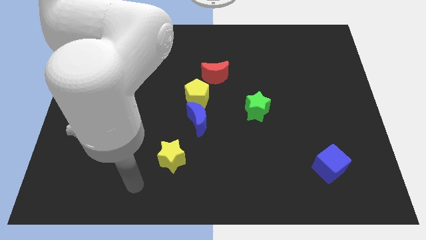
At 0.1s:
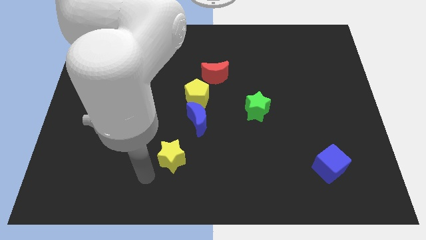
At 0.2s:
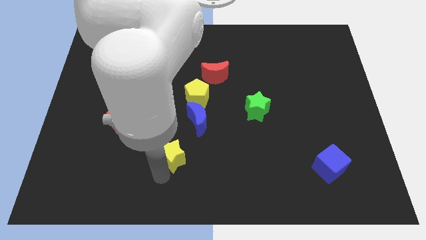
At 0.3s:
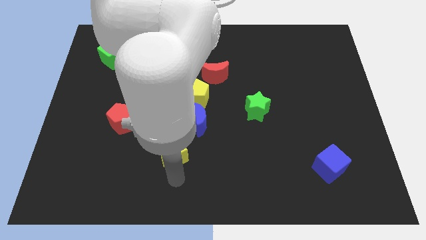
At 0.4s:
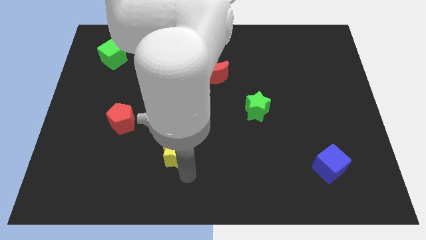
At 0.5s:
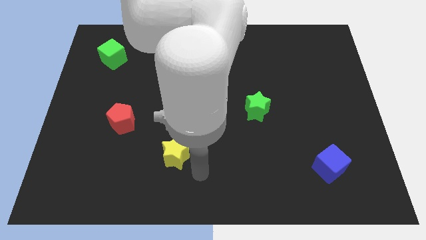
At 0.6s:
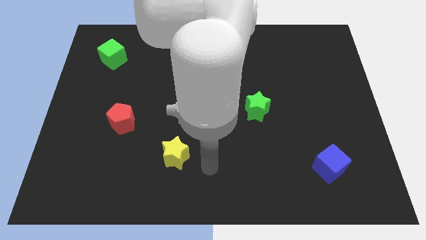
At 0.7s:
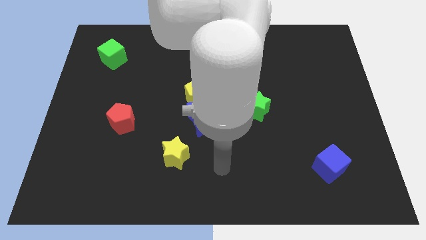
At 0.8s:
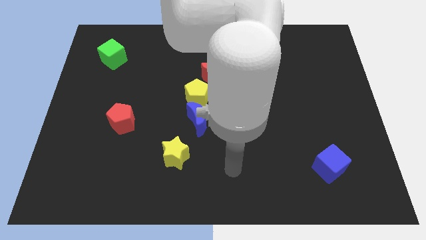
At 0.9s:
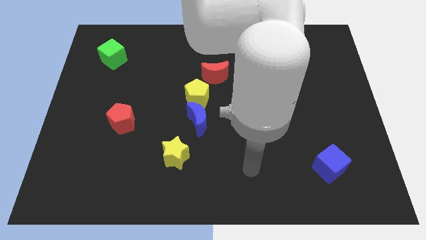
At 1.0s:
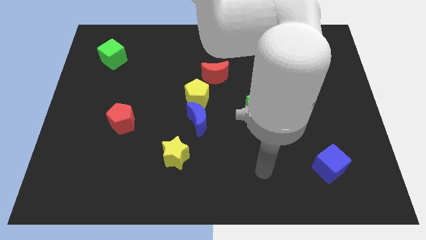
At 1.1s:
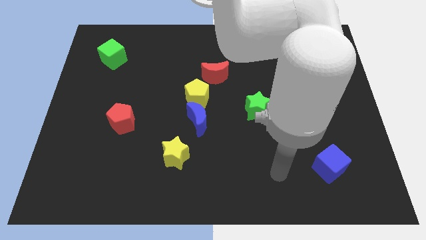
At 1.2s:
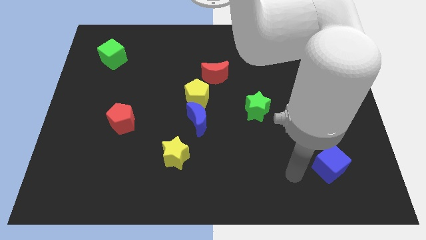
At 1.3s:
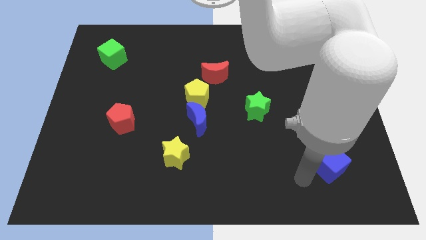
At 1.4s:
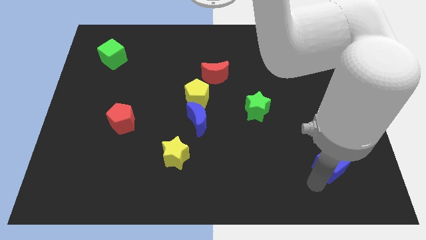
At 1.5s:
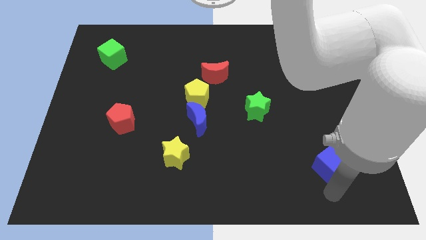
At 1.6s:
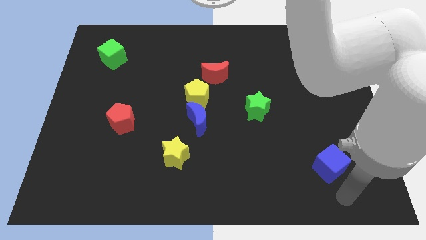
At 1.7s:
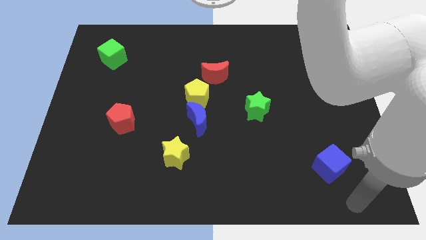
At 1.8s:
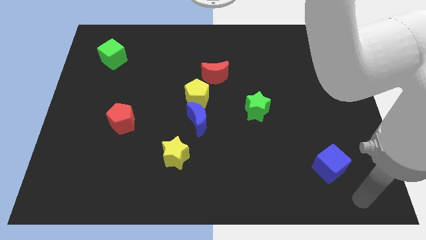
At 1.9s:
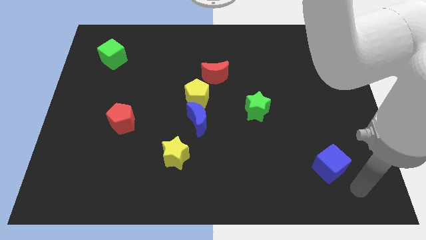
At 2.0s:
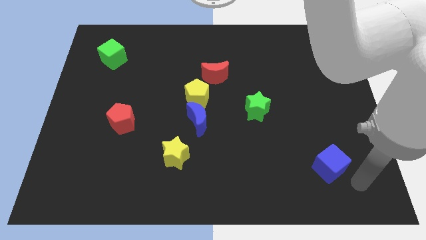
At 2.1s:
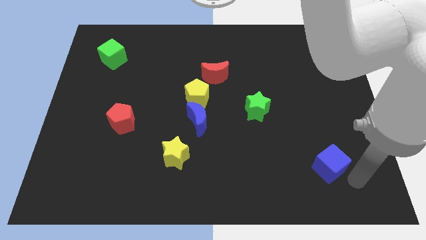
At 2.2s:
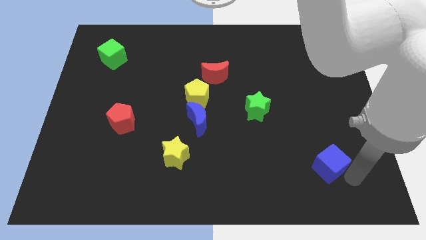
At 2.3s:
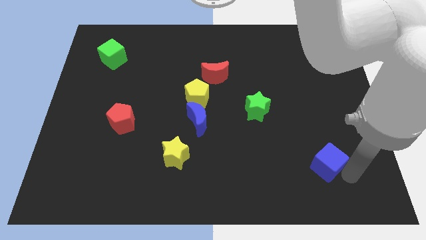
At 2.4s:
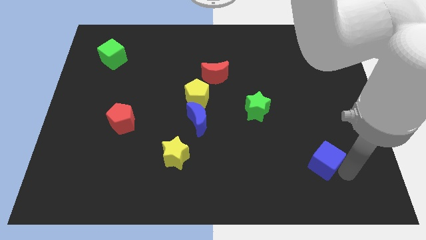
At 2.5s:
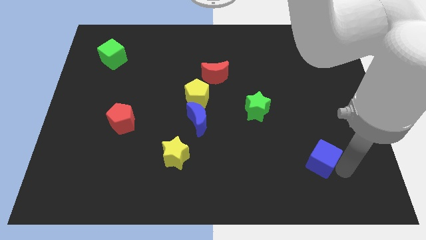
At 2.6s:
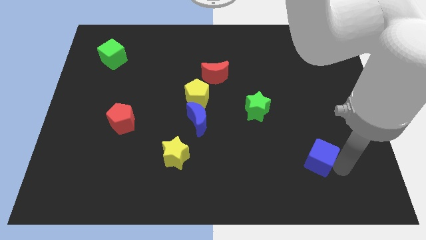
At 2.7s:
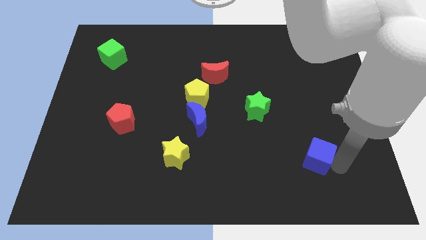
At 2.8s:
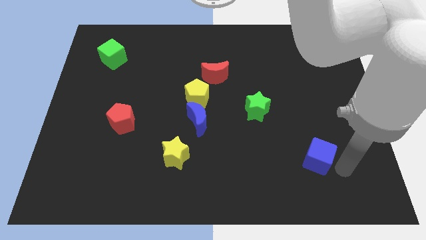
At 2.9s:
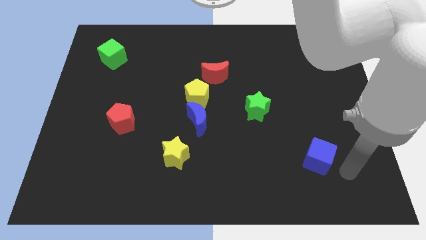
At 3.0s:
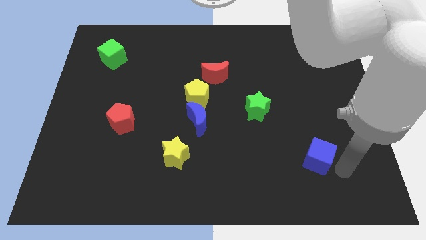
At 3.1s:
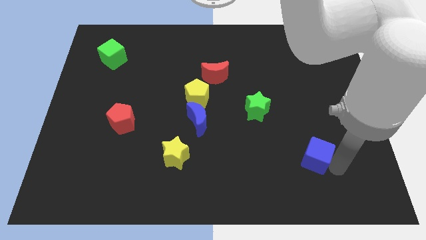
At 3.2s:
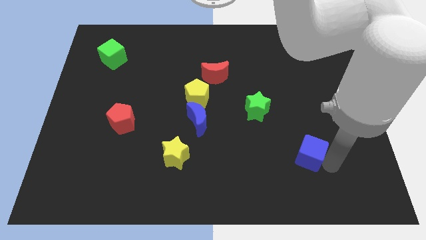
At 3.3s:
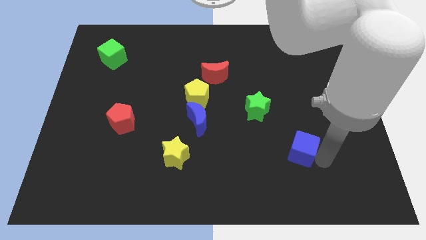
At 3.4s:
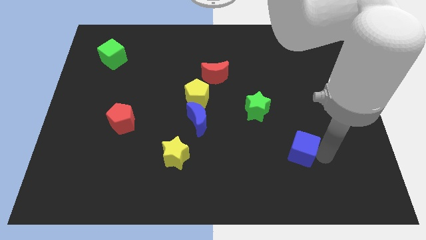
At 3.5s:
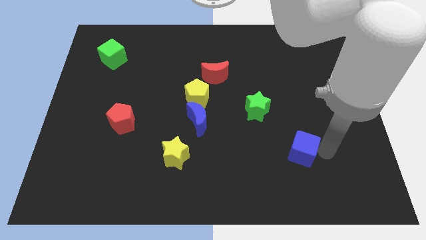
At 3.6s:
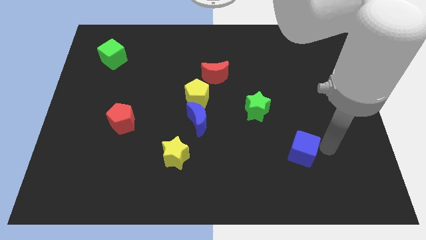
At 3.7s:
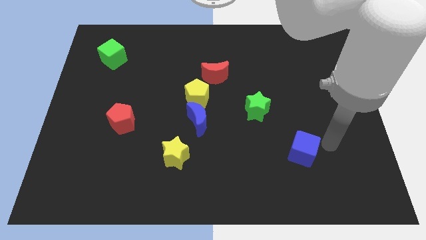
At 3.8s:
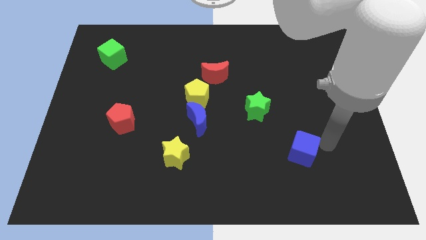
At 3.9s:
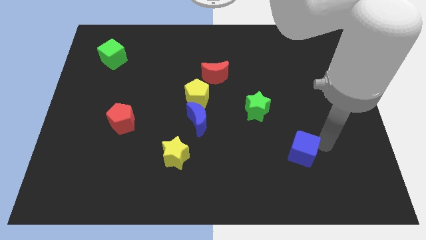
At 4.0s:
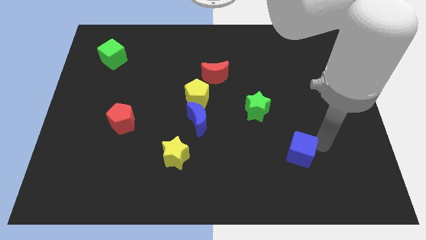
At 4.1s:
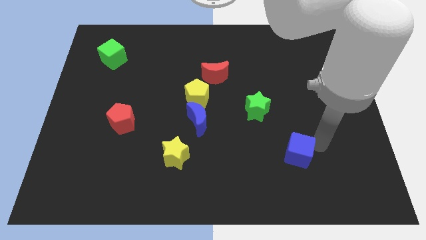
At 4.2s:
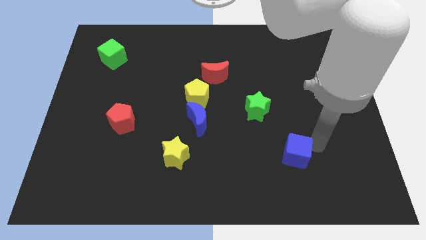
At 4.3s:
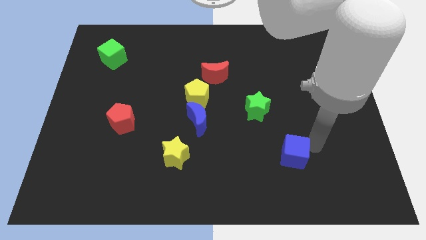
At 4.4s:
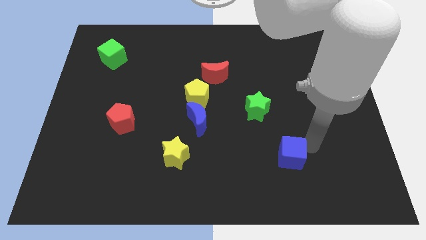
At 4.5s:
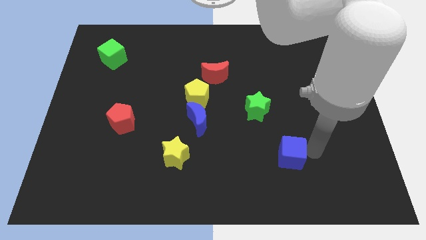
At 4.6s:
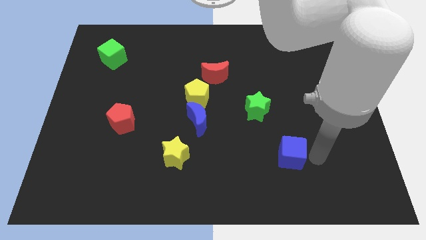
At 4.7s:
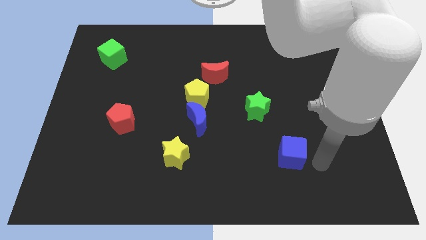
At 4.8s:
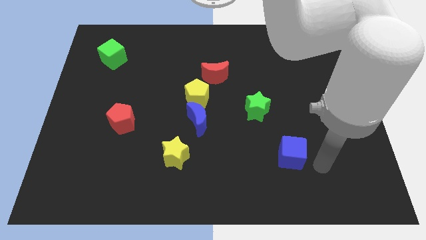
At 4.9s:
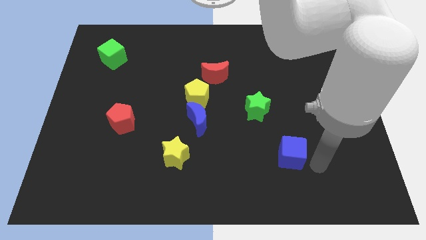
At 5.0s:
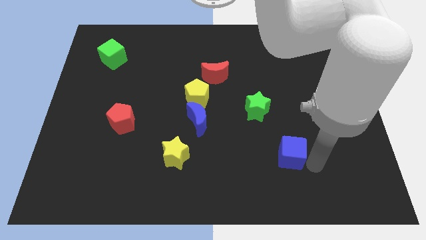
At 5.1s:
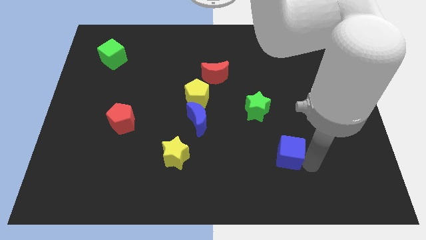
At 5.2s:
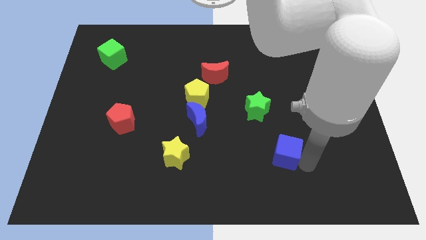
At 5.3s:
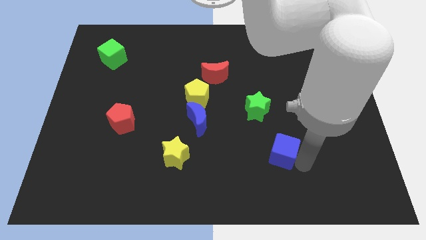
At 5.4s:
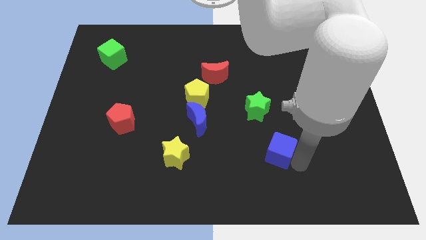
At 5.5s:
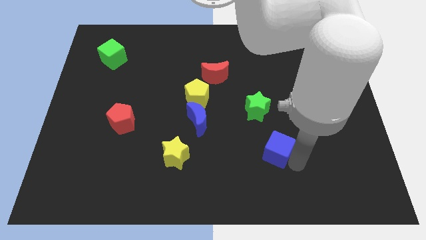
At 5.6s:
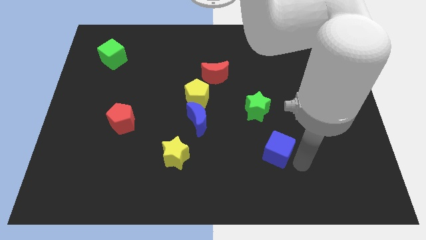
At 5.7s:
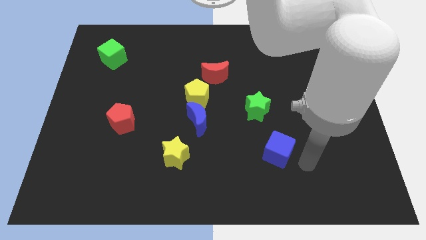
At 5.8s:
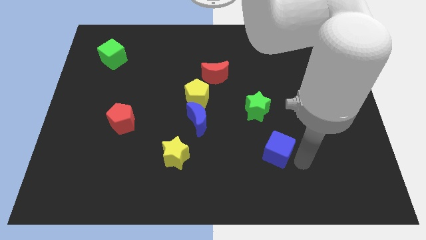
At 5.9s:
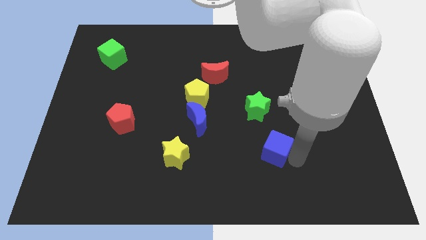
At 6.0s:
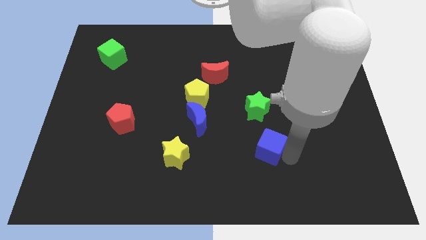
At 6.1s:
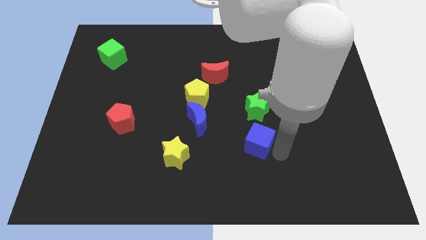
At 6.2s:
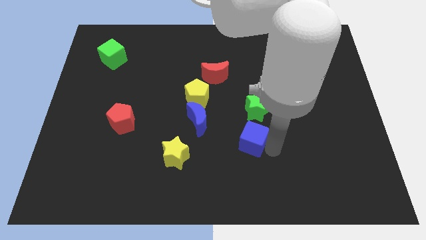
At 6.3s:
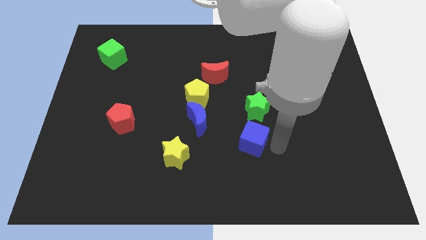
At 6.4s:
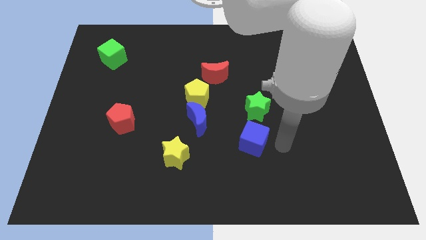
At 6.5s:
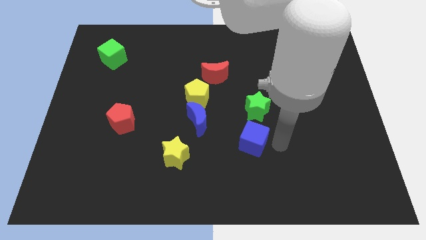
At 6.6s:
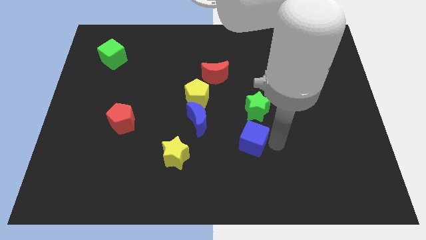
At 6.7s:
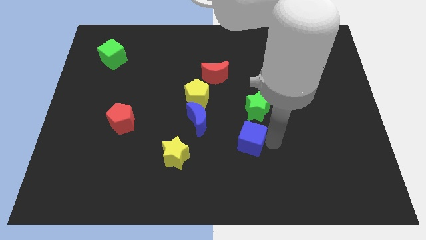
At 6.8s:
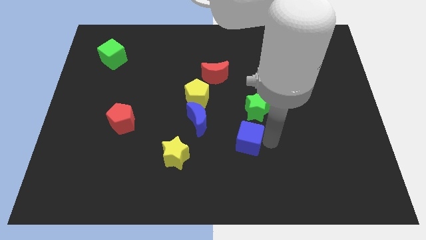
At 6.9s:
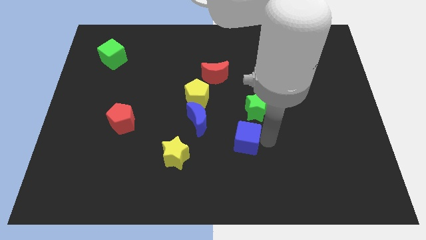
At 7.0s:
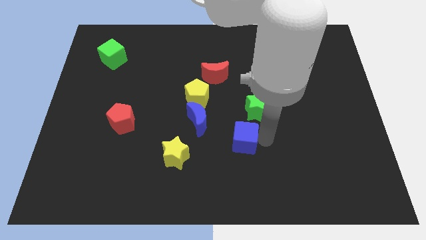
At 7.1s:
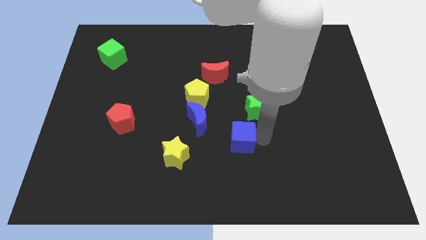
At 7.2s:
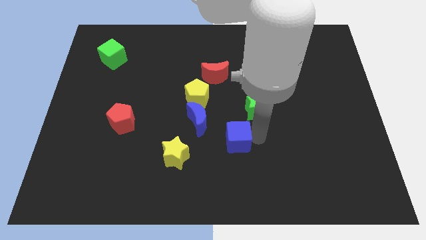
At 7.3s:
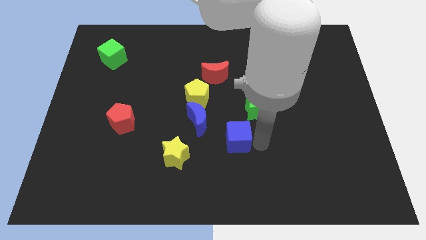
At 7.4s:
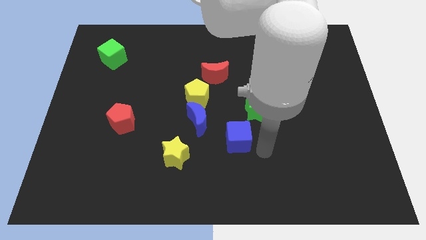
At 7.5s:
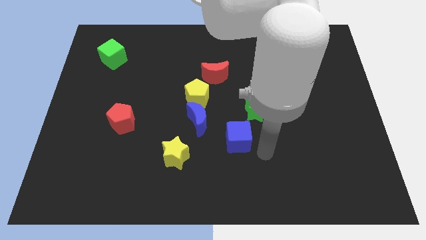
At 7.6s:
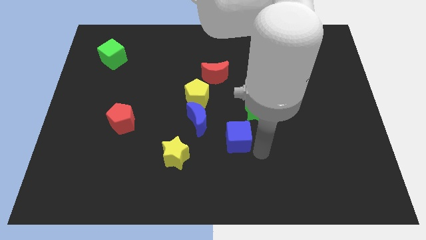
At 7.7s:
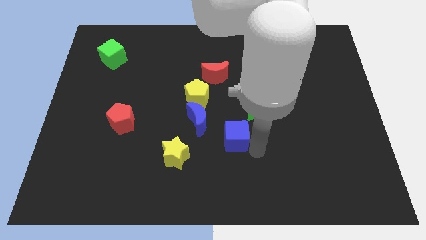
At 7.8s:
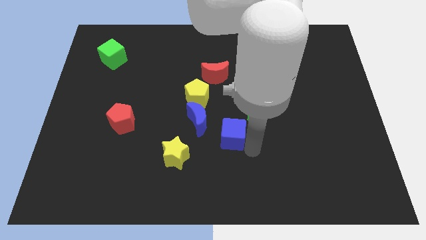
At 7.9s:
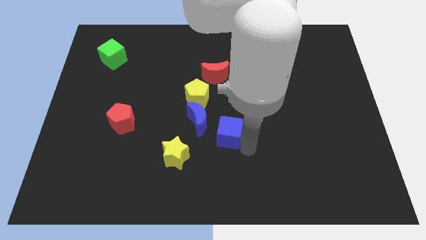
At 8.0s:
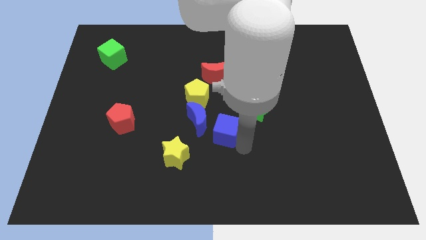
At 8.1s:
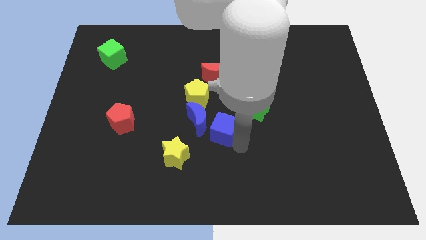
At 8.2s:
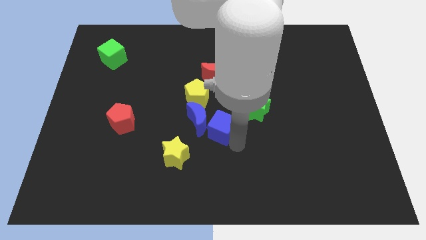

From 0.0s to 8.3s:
slide the blue cube close to the blue moon
